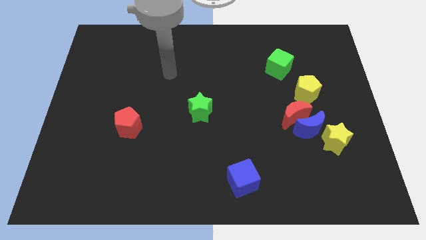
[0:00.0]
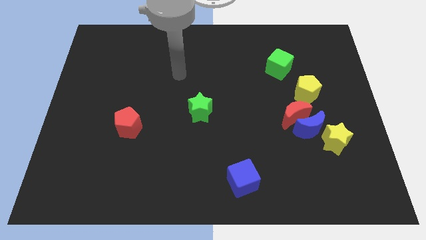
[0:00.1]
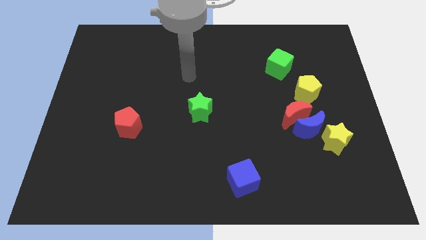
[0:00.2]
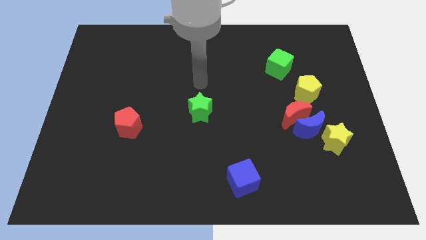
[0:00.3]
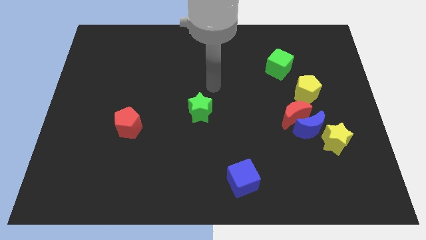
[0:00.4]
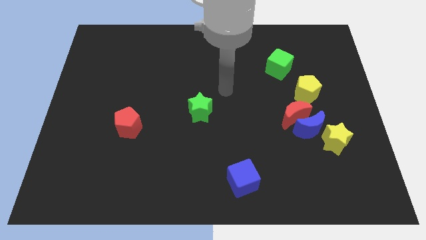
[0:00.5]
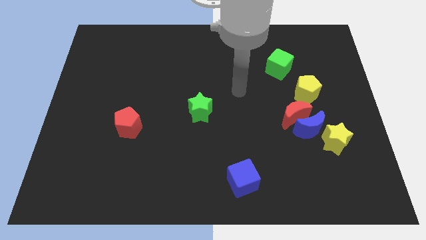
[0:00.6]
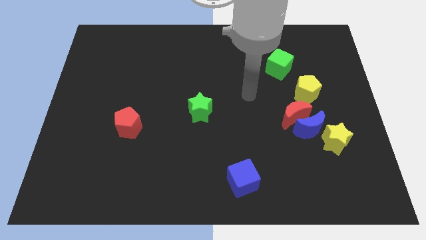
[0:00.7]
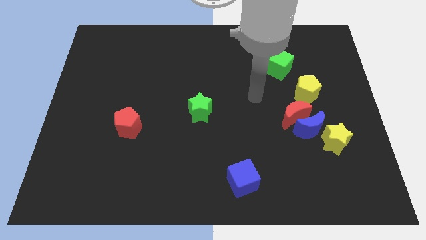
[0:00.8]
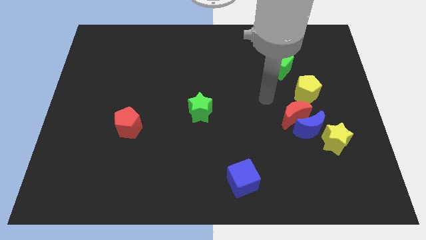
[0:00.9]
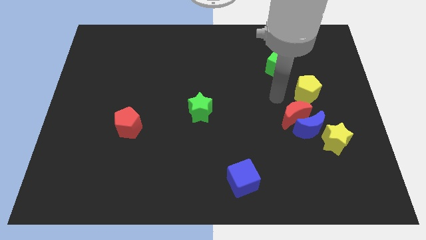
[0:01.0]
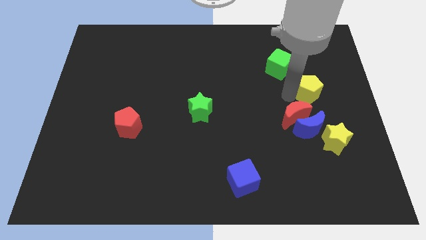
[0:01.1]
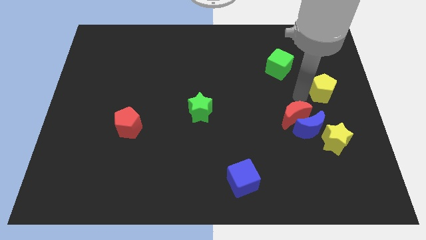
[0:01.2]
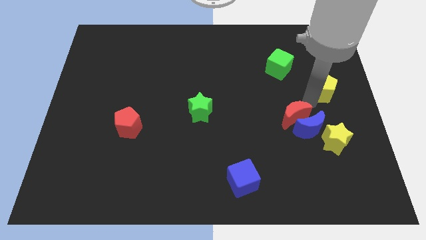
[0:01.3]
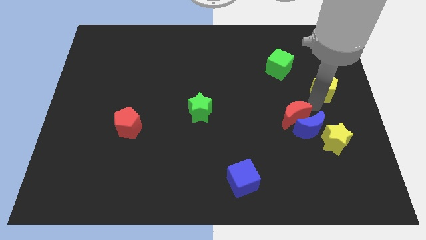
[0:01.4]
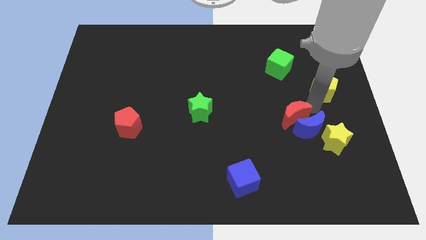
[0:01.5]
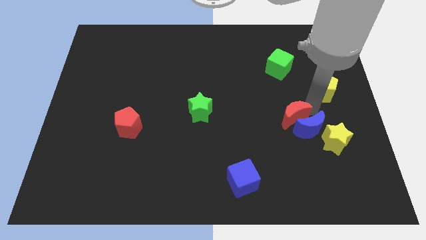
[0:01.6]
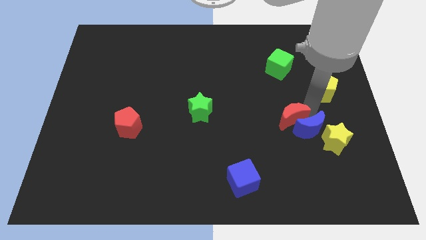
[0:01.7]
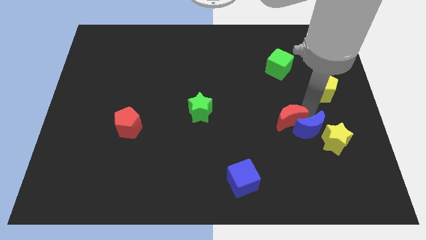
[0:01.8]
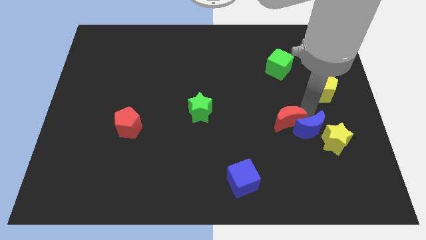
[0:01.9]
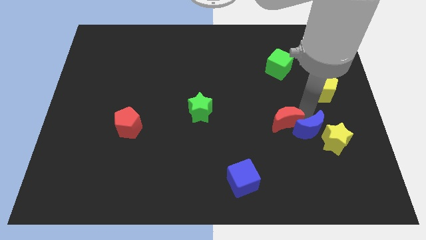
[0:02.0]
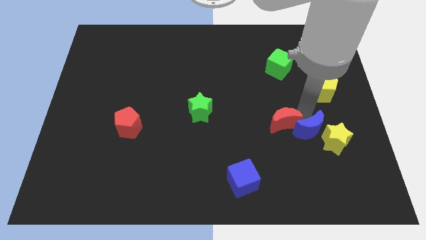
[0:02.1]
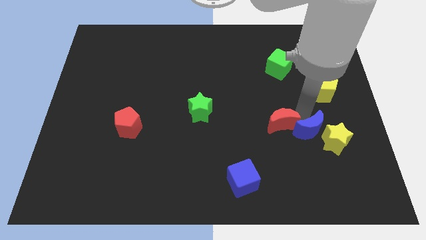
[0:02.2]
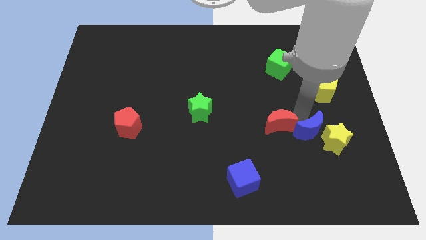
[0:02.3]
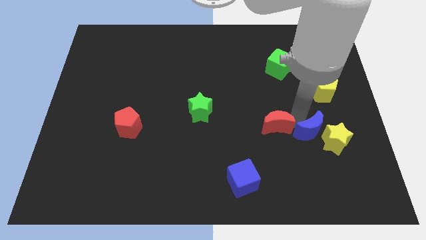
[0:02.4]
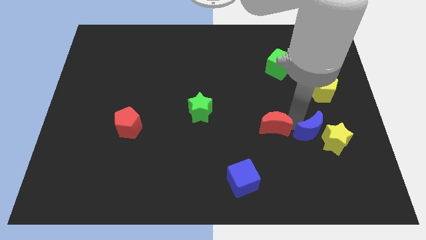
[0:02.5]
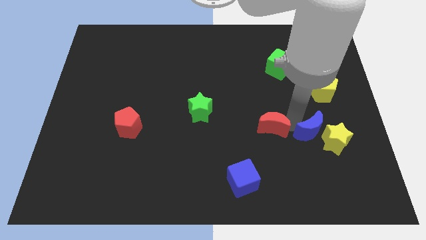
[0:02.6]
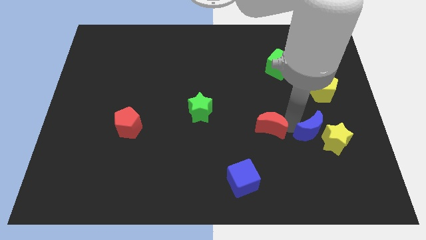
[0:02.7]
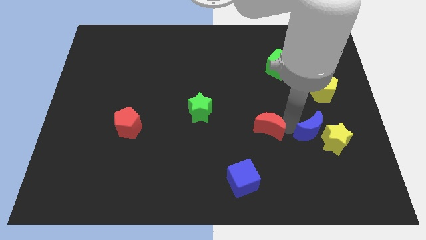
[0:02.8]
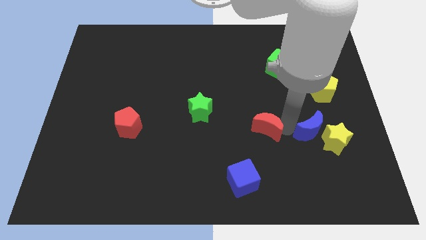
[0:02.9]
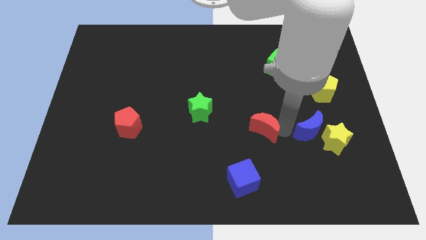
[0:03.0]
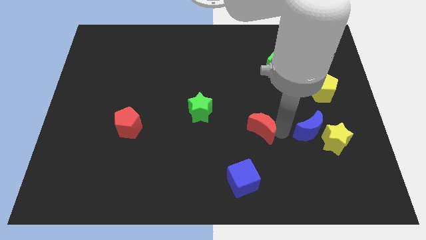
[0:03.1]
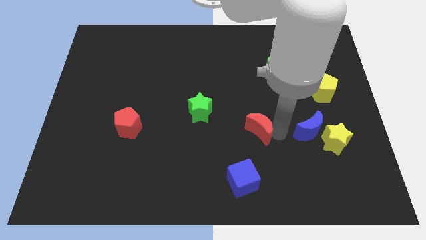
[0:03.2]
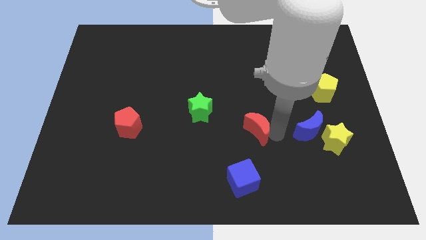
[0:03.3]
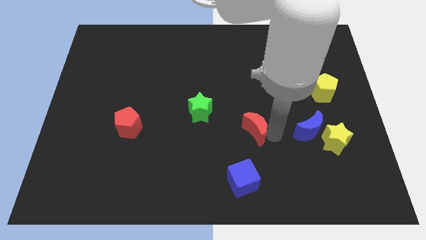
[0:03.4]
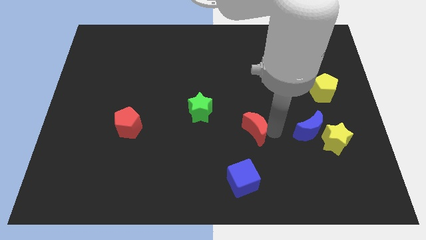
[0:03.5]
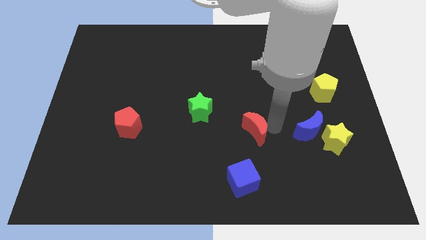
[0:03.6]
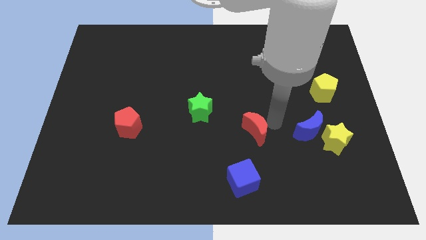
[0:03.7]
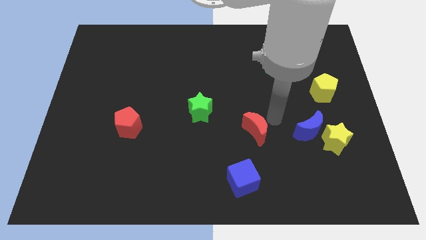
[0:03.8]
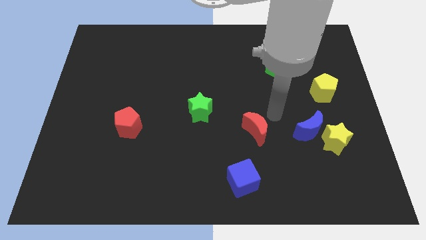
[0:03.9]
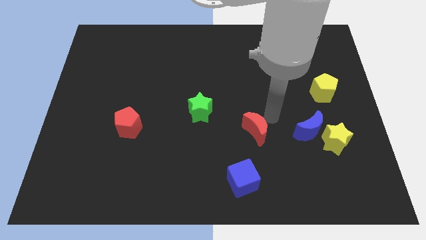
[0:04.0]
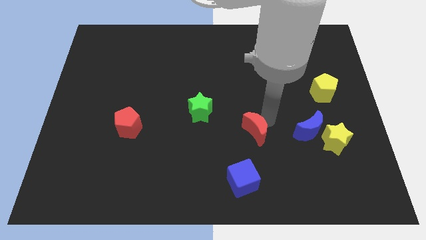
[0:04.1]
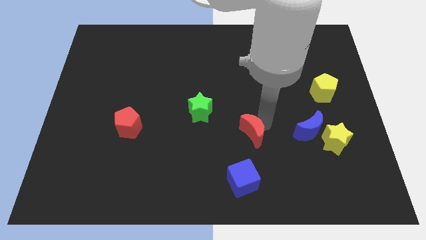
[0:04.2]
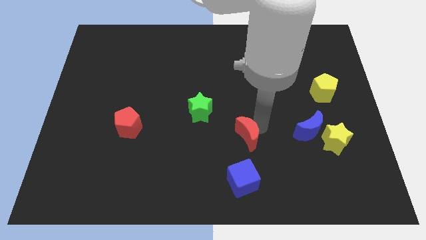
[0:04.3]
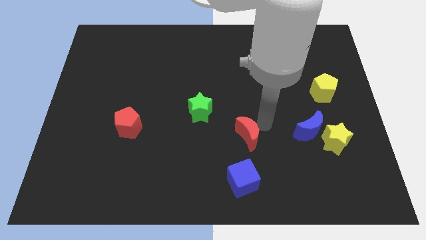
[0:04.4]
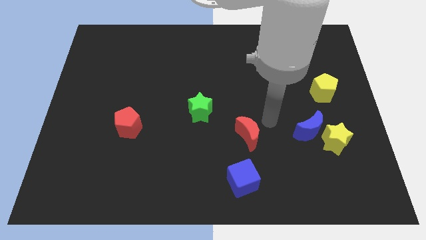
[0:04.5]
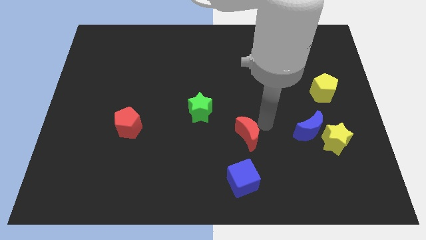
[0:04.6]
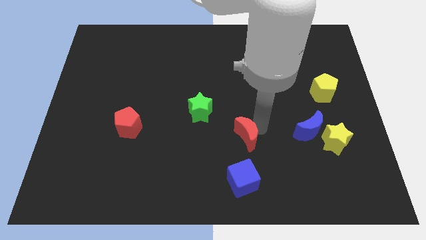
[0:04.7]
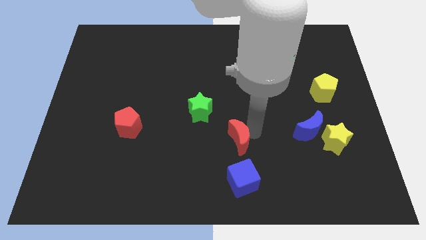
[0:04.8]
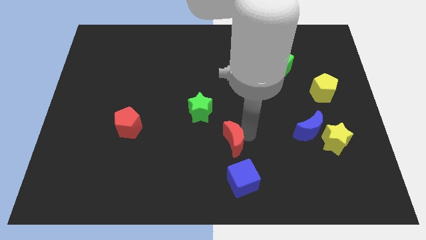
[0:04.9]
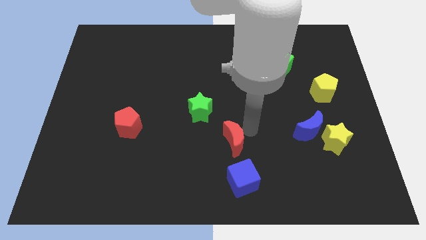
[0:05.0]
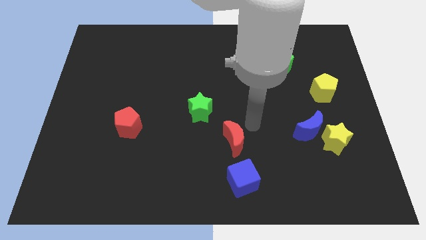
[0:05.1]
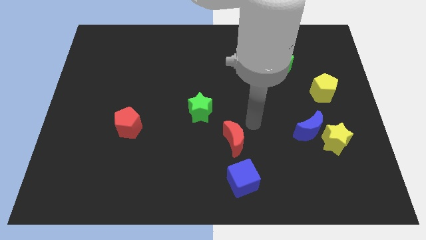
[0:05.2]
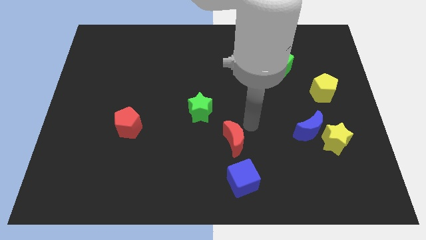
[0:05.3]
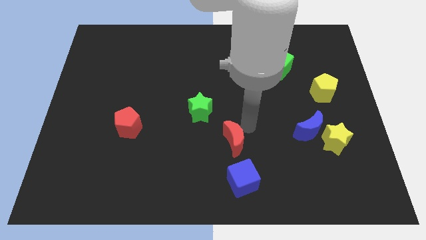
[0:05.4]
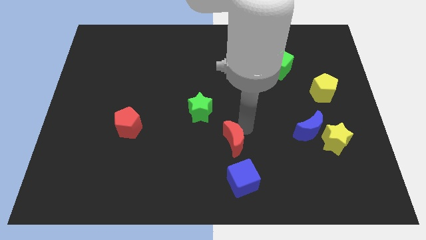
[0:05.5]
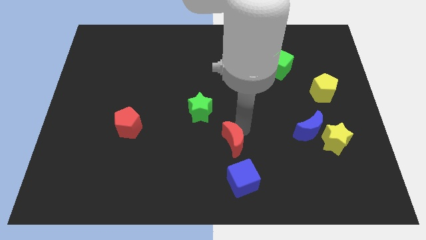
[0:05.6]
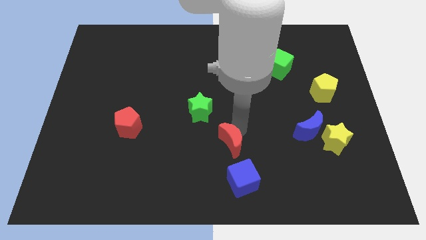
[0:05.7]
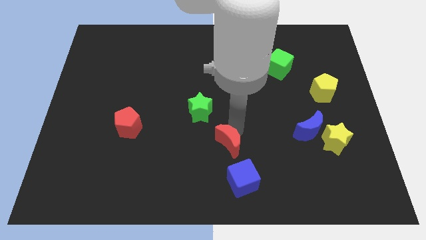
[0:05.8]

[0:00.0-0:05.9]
push the red moon to the top left of the blue cube
